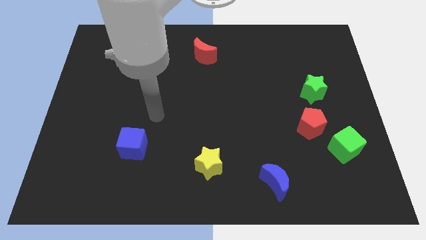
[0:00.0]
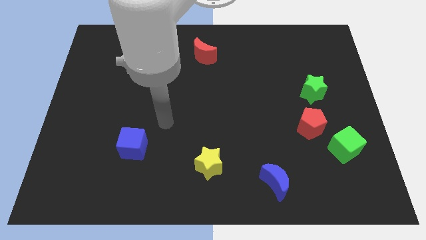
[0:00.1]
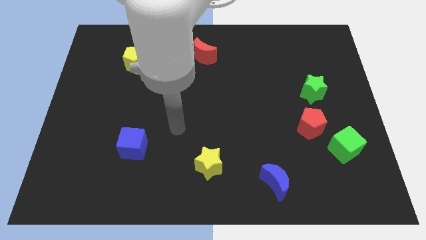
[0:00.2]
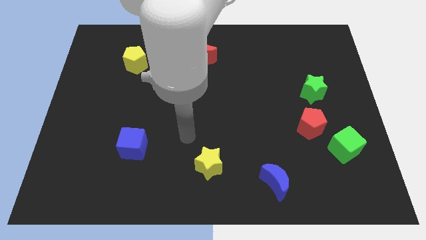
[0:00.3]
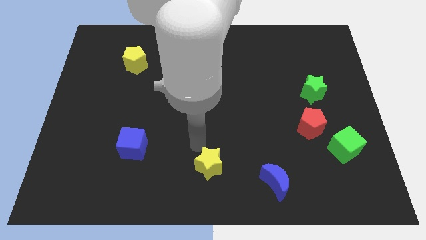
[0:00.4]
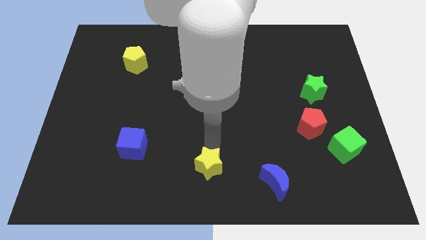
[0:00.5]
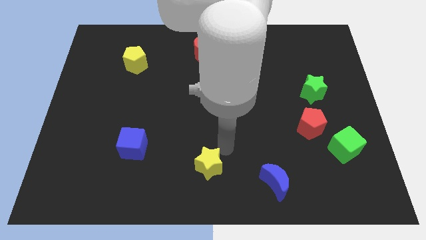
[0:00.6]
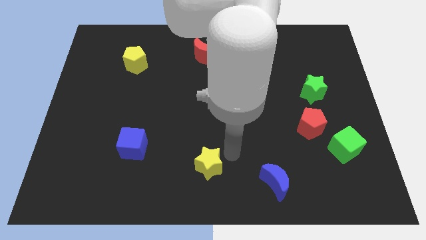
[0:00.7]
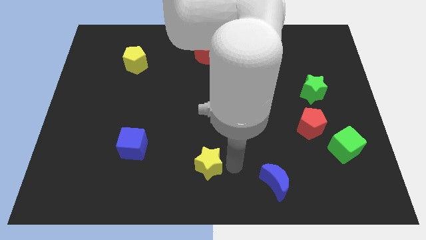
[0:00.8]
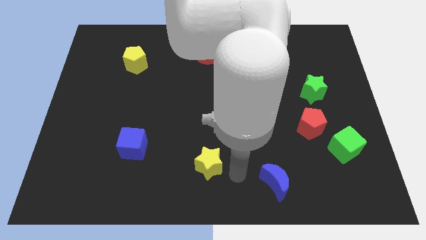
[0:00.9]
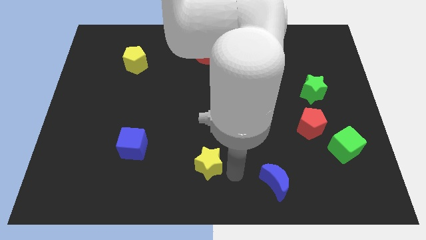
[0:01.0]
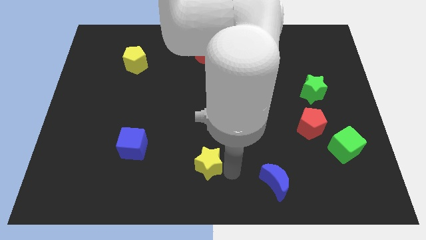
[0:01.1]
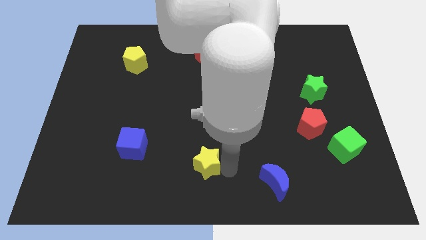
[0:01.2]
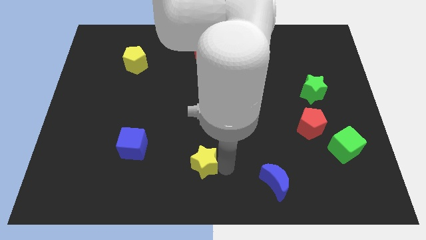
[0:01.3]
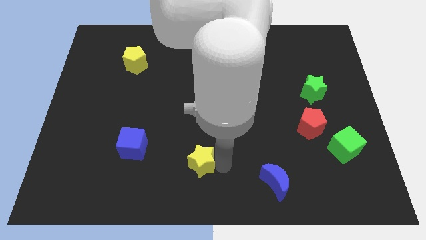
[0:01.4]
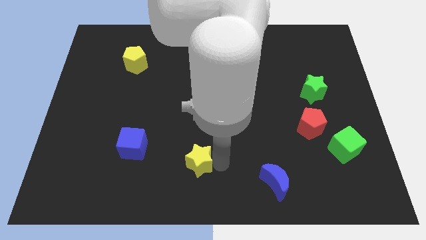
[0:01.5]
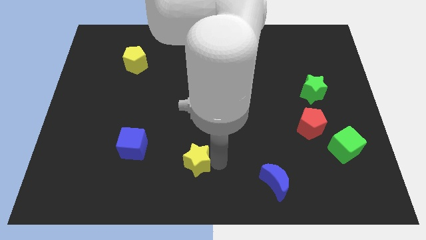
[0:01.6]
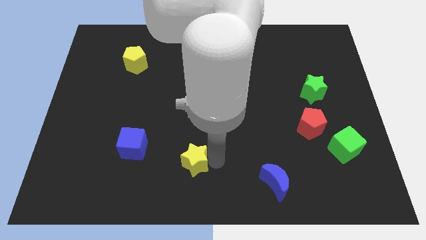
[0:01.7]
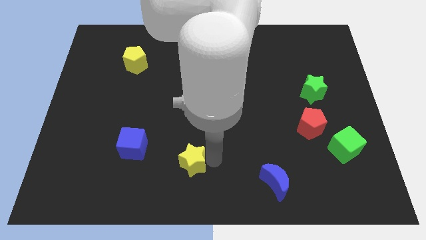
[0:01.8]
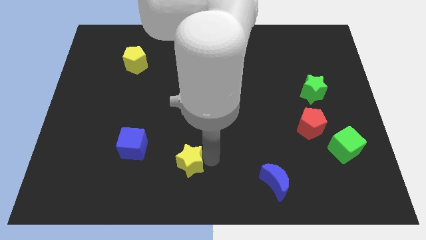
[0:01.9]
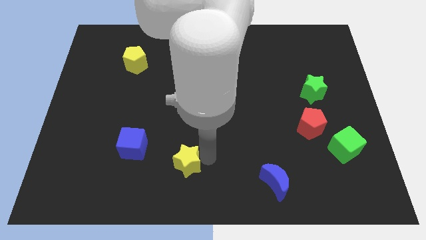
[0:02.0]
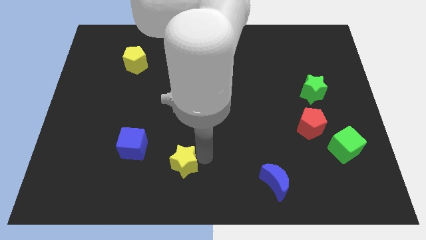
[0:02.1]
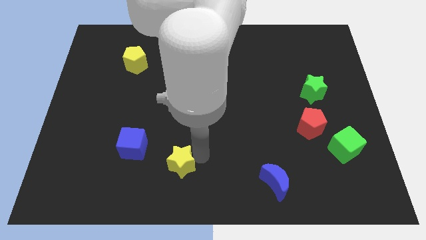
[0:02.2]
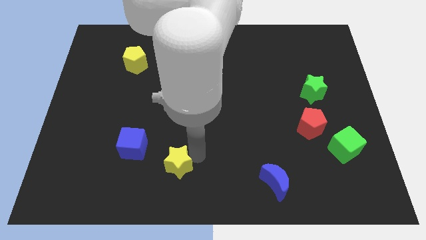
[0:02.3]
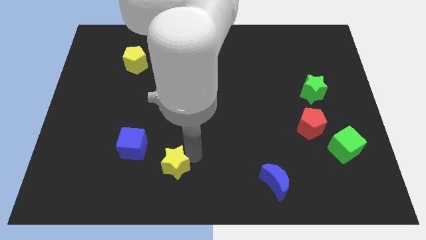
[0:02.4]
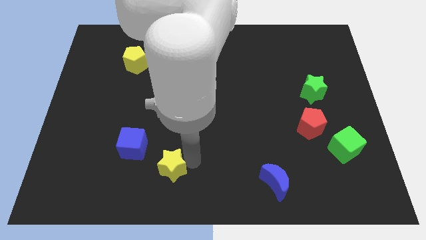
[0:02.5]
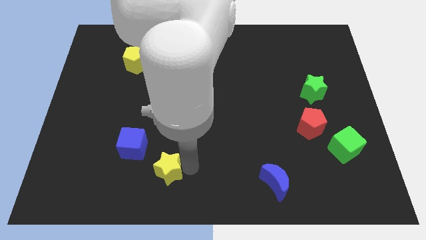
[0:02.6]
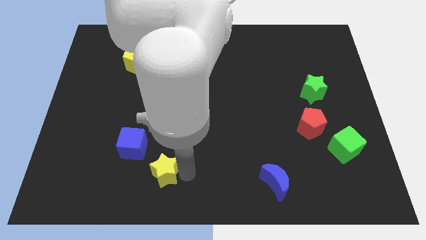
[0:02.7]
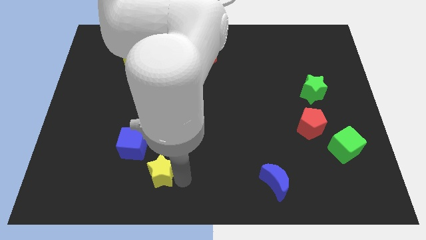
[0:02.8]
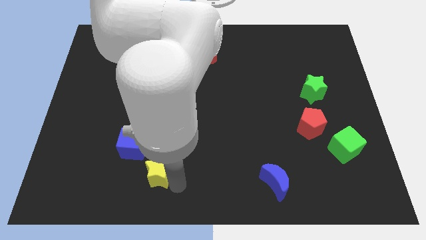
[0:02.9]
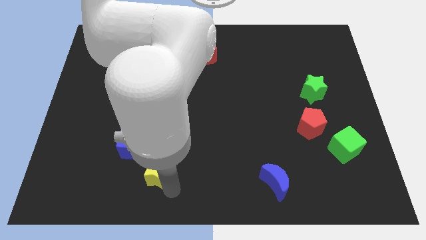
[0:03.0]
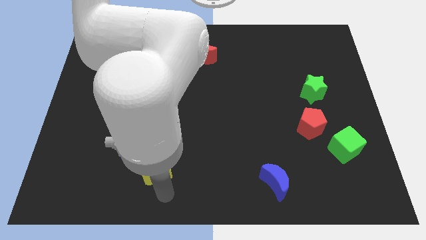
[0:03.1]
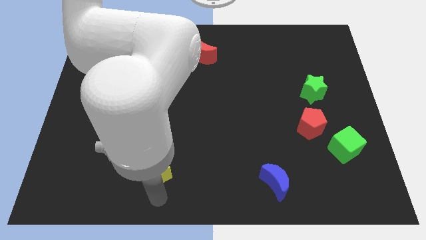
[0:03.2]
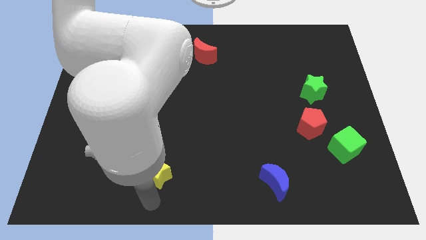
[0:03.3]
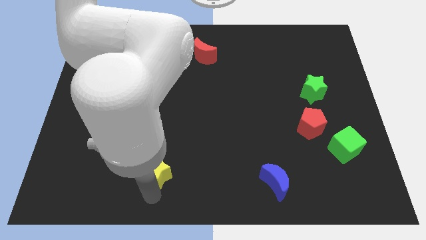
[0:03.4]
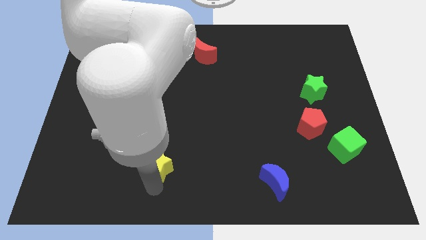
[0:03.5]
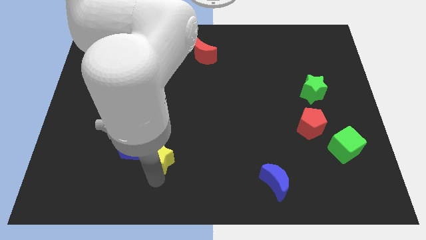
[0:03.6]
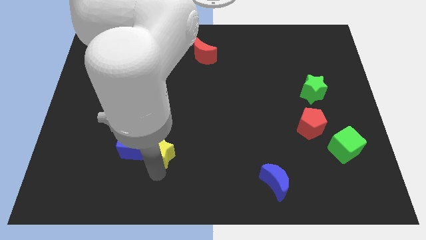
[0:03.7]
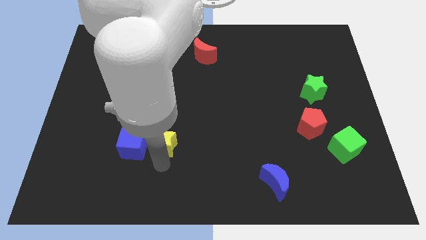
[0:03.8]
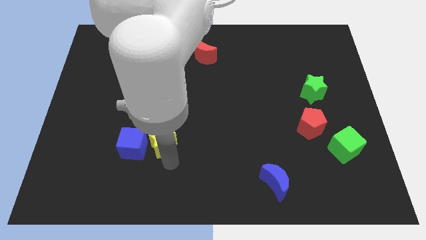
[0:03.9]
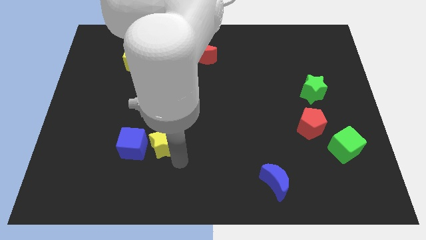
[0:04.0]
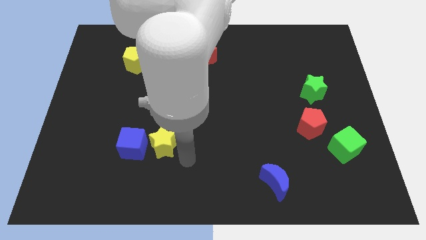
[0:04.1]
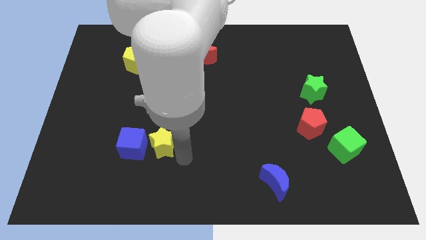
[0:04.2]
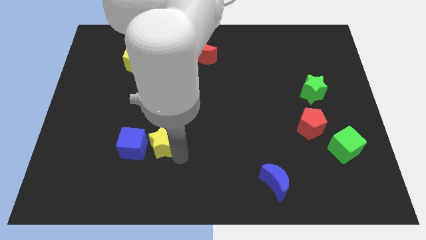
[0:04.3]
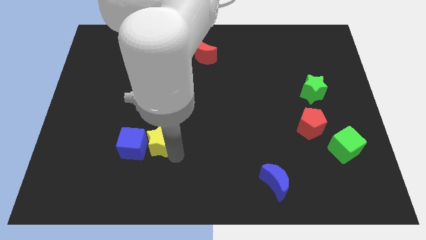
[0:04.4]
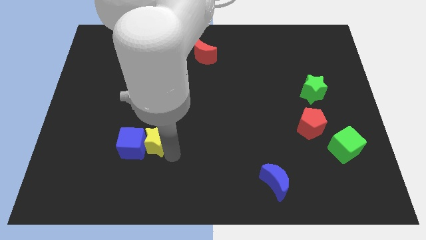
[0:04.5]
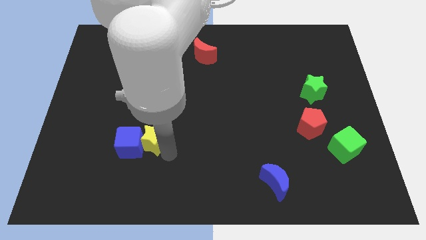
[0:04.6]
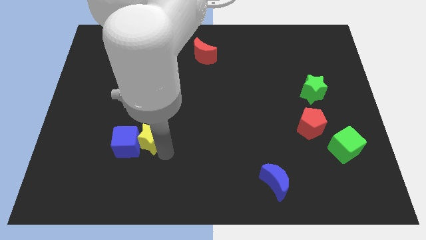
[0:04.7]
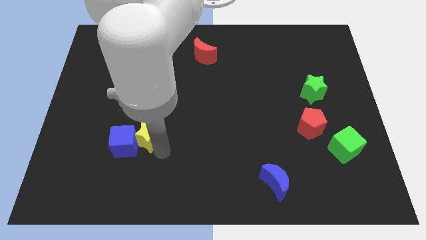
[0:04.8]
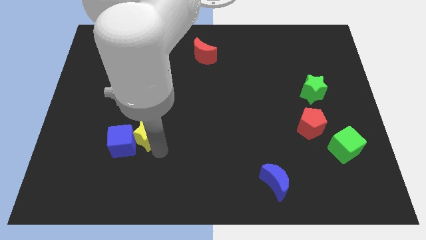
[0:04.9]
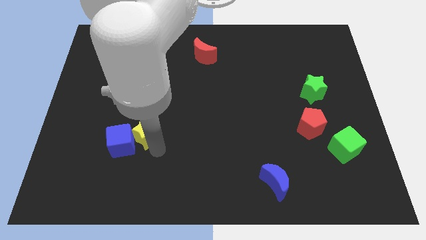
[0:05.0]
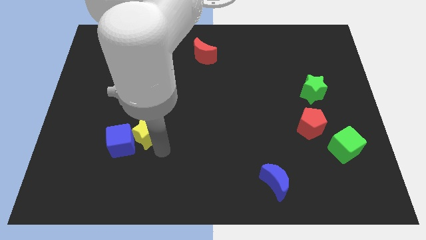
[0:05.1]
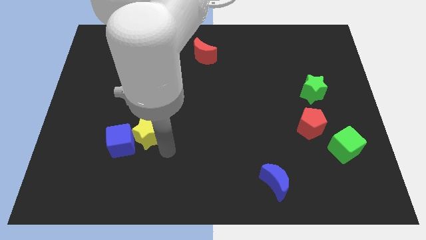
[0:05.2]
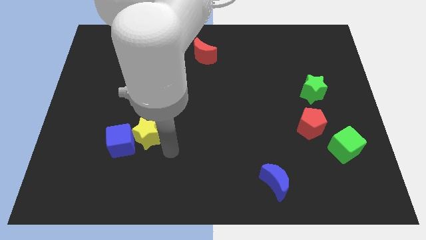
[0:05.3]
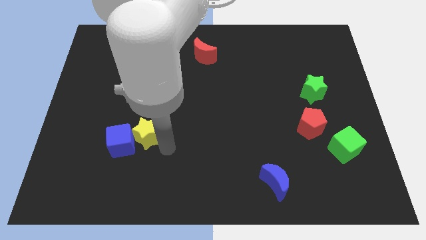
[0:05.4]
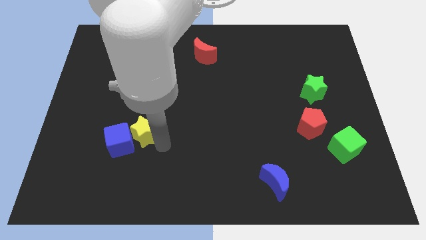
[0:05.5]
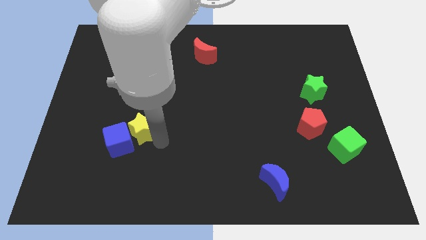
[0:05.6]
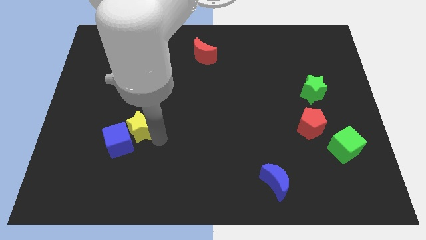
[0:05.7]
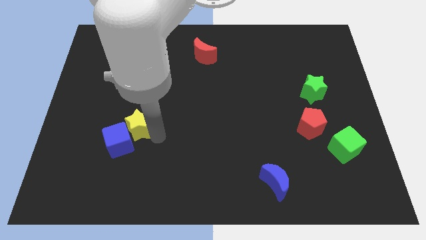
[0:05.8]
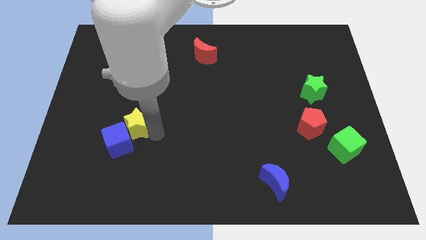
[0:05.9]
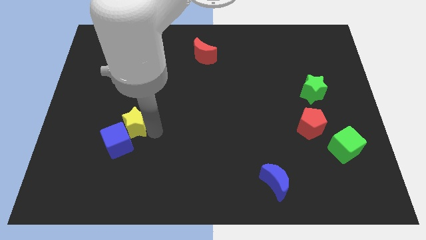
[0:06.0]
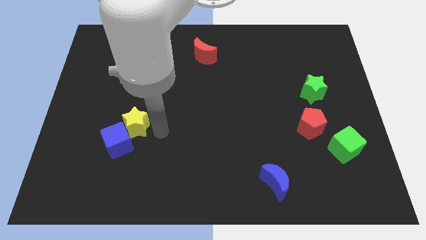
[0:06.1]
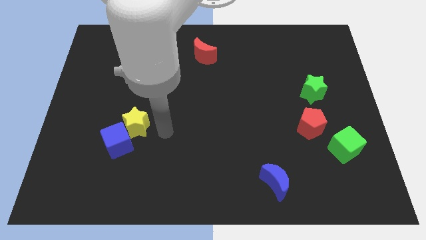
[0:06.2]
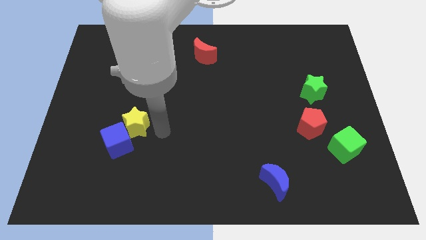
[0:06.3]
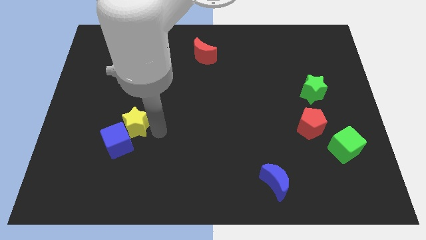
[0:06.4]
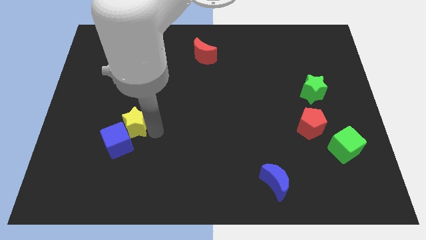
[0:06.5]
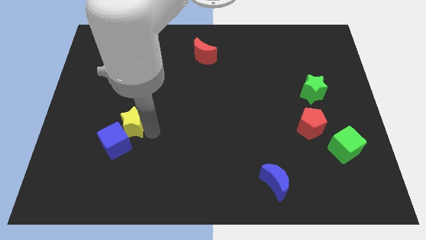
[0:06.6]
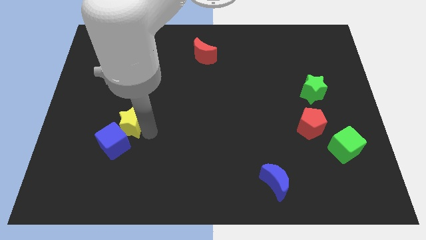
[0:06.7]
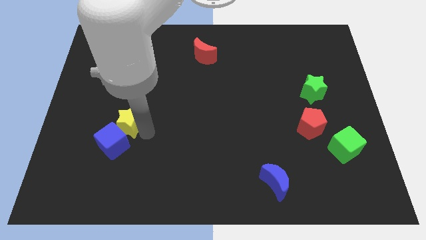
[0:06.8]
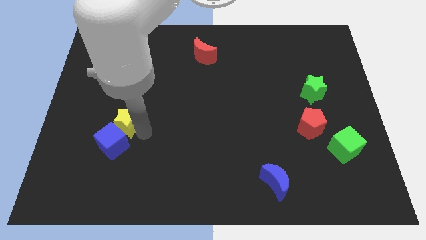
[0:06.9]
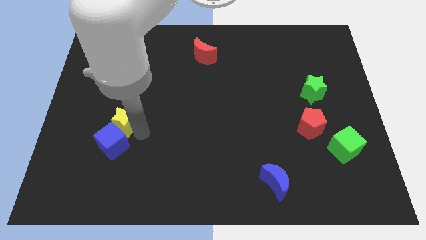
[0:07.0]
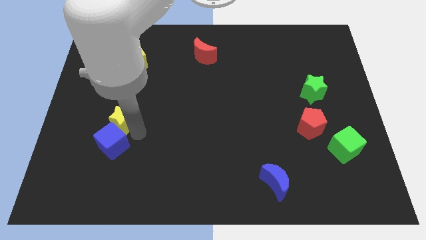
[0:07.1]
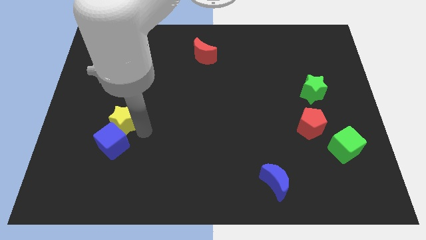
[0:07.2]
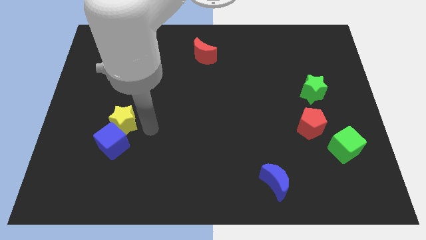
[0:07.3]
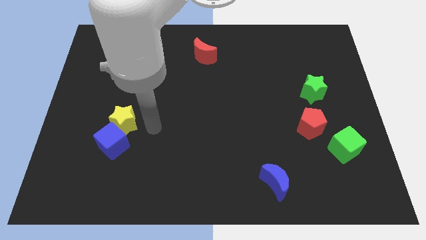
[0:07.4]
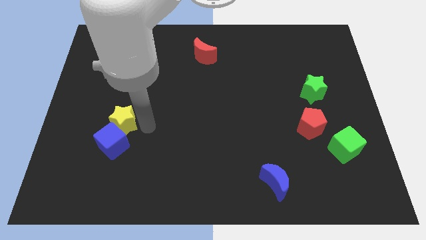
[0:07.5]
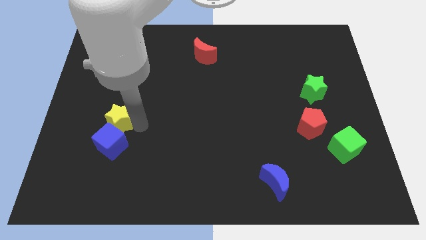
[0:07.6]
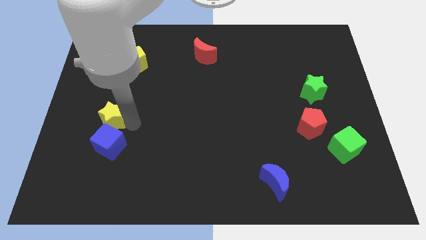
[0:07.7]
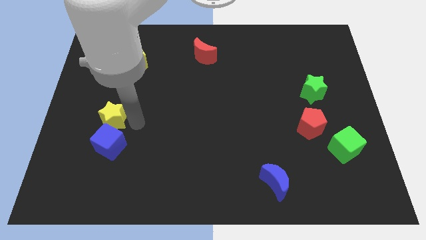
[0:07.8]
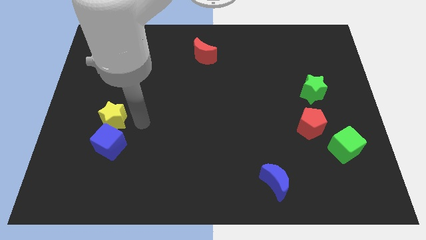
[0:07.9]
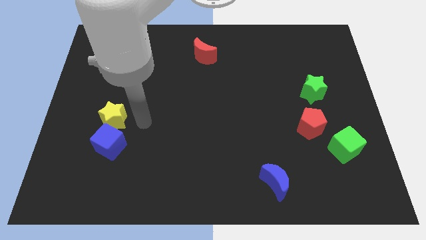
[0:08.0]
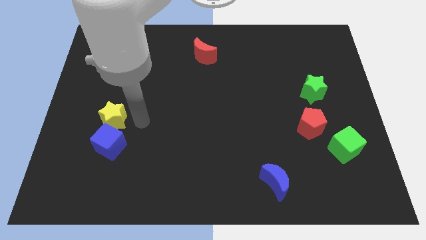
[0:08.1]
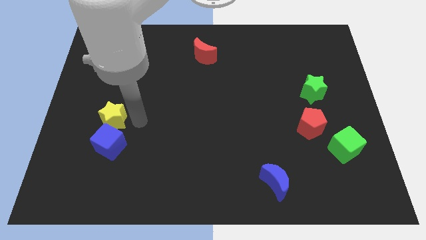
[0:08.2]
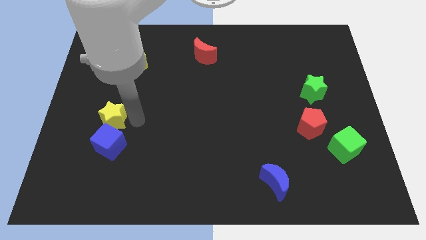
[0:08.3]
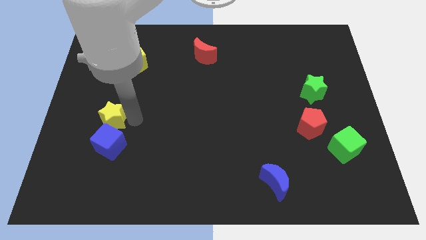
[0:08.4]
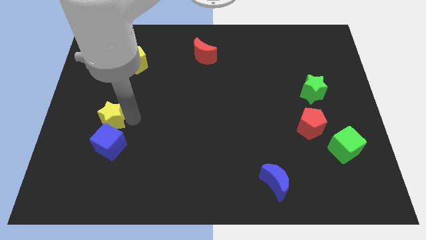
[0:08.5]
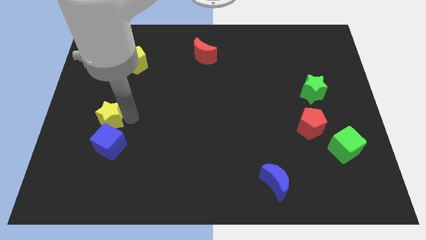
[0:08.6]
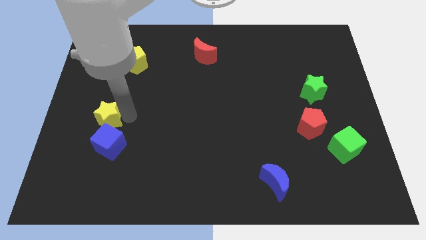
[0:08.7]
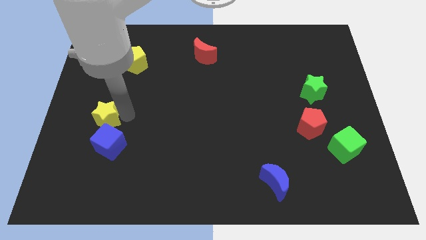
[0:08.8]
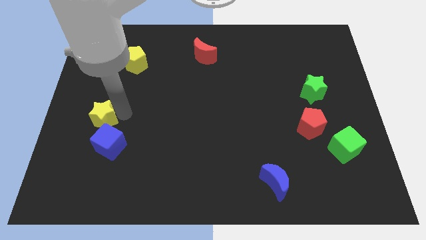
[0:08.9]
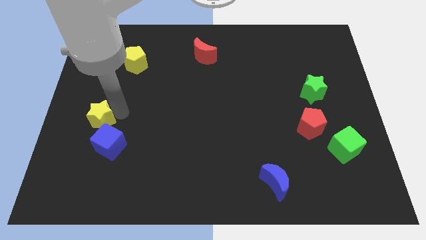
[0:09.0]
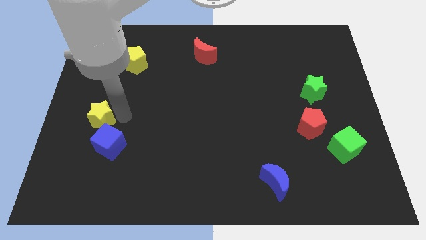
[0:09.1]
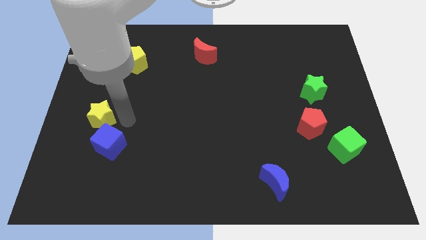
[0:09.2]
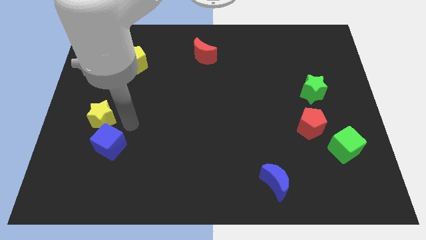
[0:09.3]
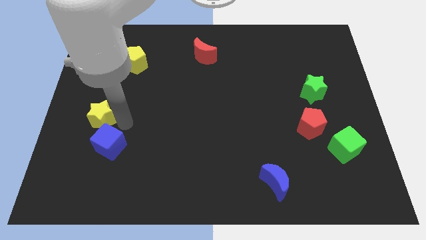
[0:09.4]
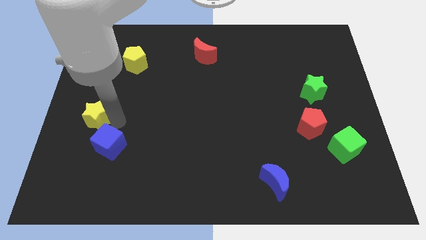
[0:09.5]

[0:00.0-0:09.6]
slide the yellow star to the left side of the board
